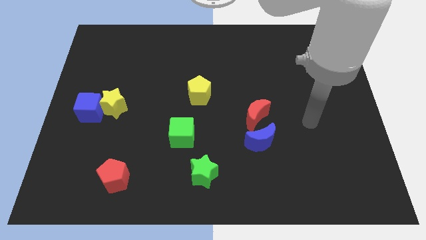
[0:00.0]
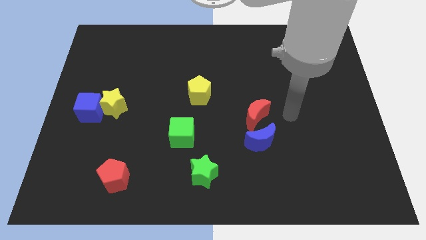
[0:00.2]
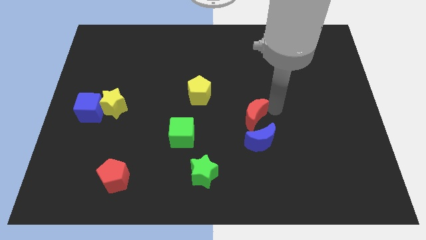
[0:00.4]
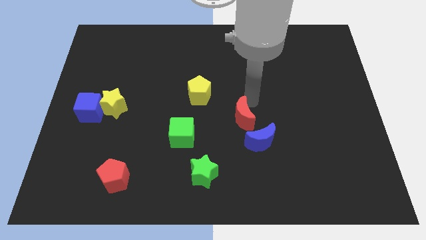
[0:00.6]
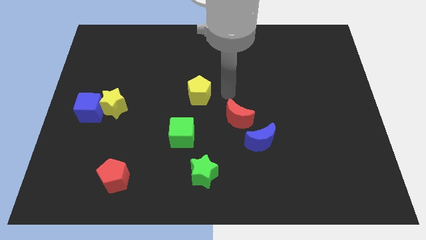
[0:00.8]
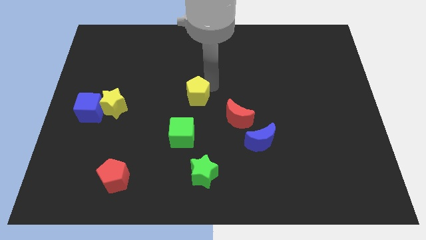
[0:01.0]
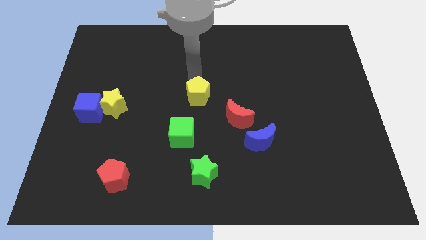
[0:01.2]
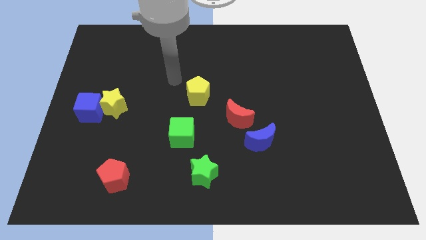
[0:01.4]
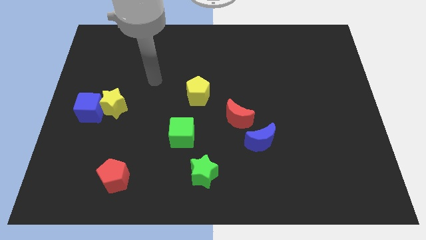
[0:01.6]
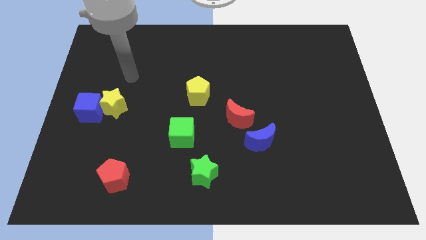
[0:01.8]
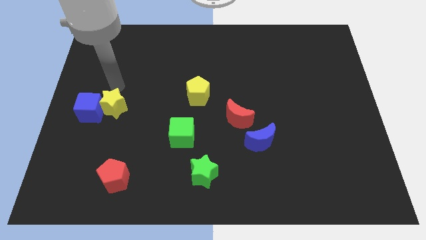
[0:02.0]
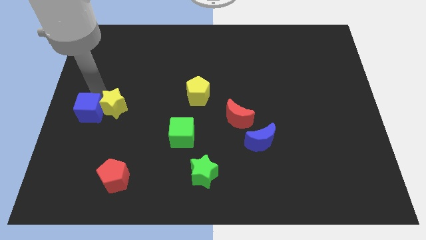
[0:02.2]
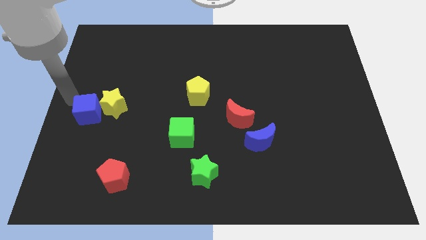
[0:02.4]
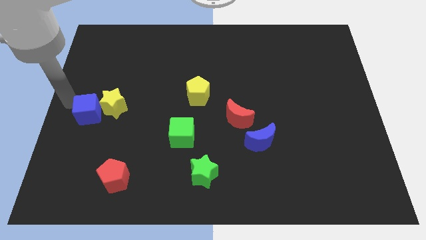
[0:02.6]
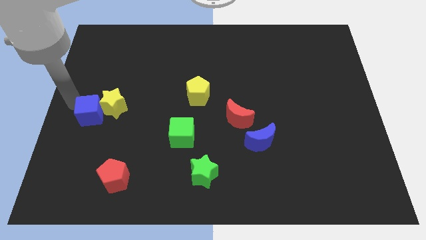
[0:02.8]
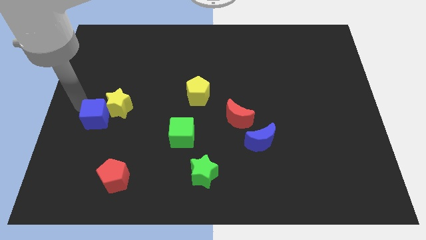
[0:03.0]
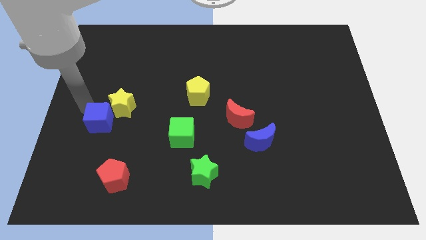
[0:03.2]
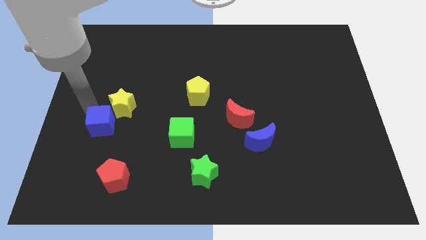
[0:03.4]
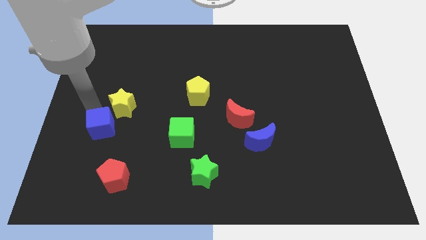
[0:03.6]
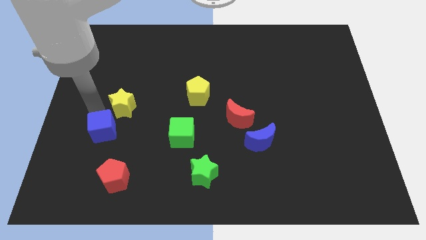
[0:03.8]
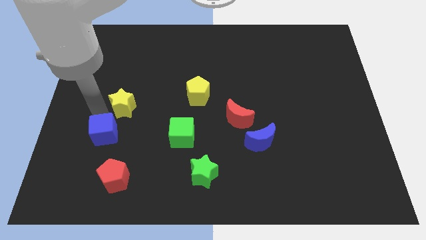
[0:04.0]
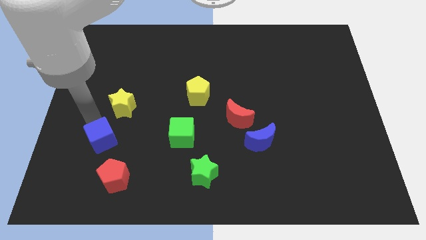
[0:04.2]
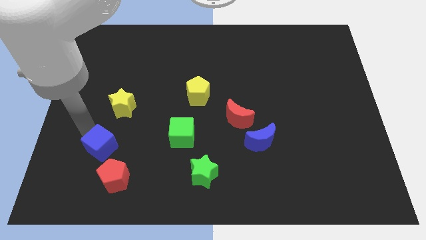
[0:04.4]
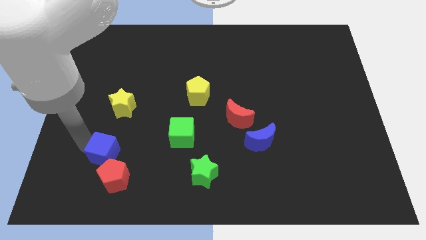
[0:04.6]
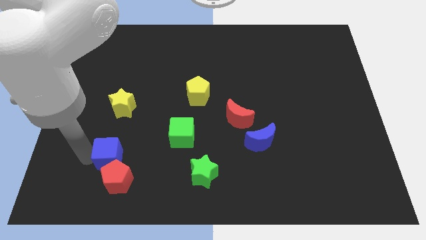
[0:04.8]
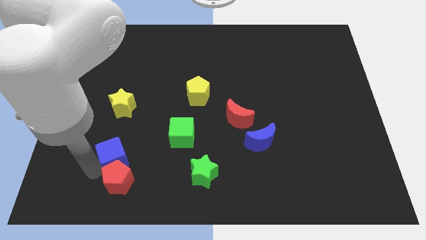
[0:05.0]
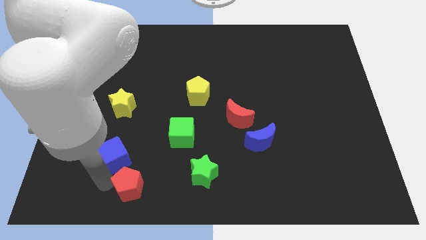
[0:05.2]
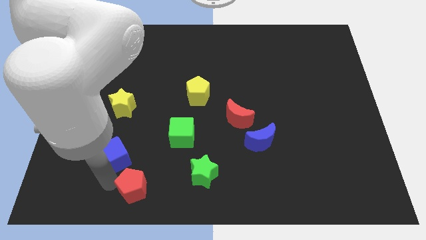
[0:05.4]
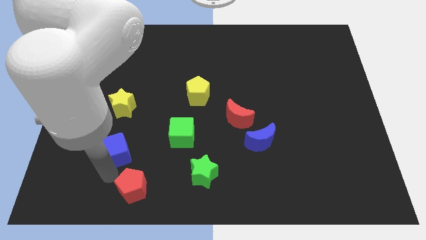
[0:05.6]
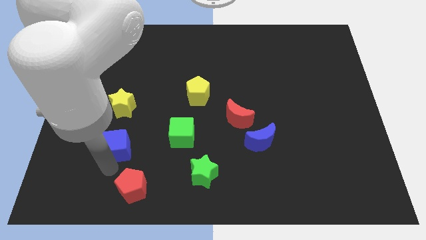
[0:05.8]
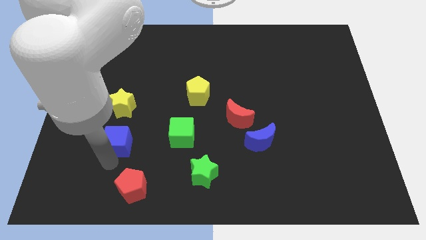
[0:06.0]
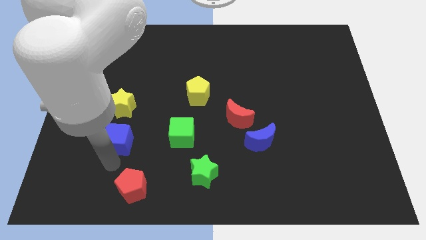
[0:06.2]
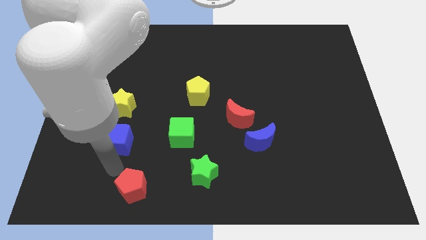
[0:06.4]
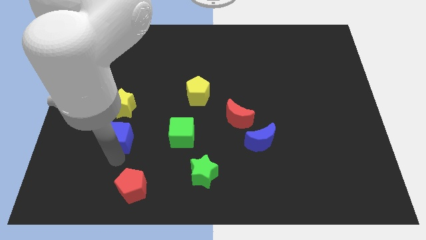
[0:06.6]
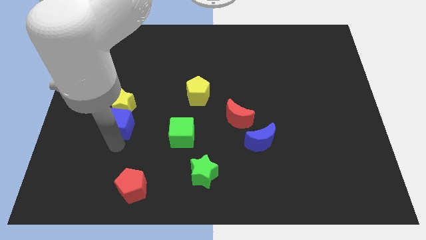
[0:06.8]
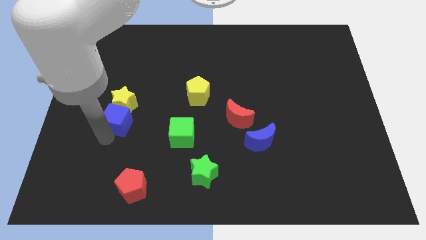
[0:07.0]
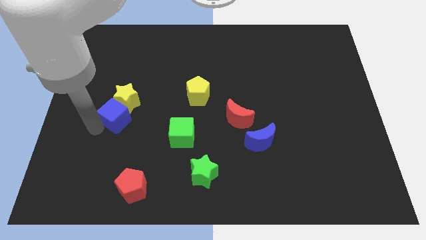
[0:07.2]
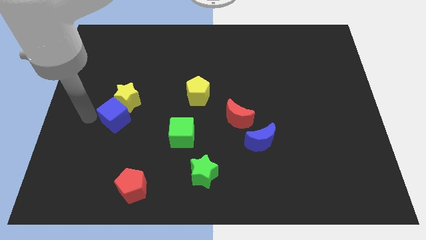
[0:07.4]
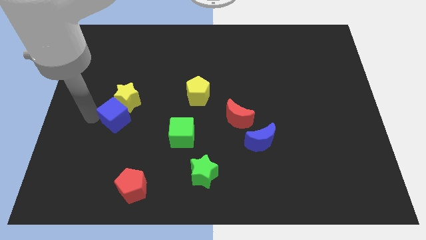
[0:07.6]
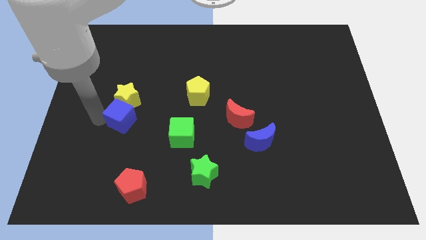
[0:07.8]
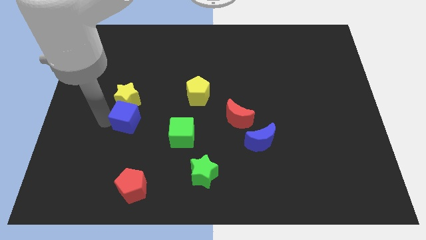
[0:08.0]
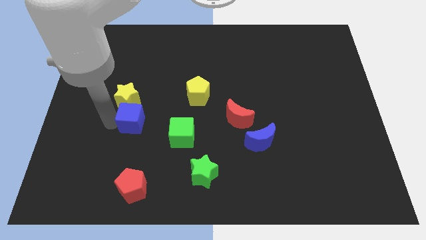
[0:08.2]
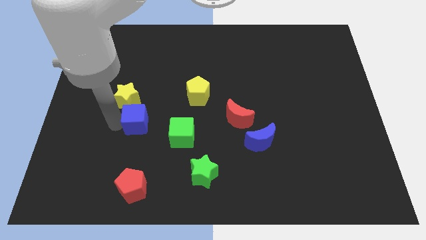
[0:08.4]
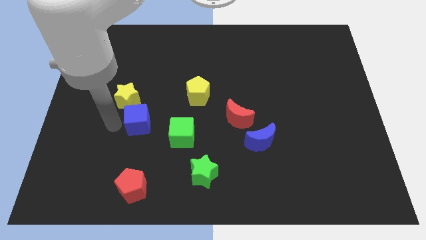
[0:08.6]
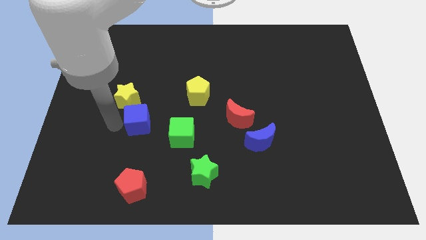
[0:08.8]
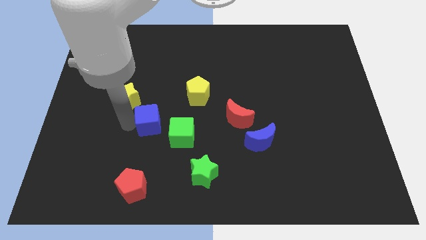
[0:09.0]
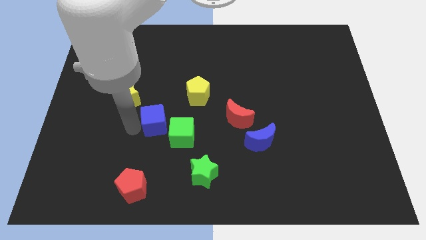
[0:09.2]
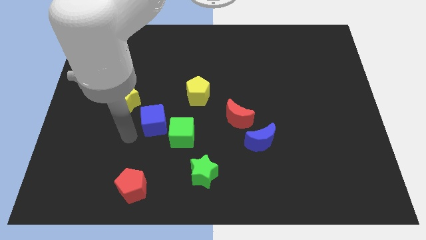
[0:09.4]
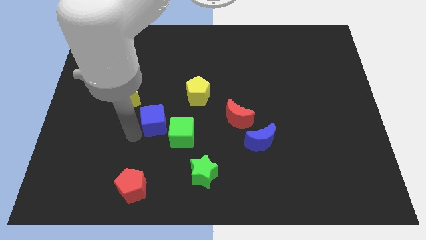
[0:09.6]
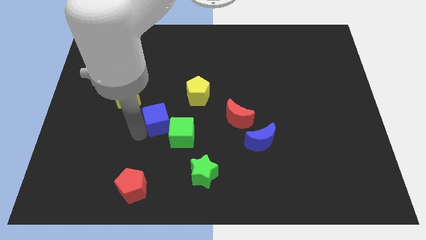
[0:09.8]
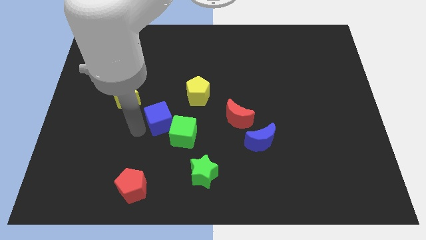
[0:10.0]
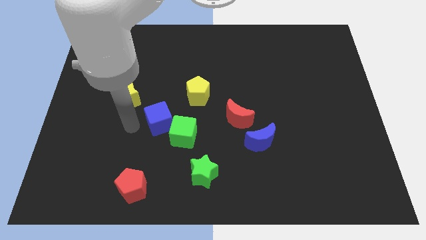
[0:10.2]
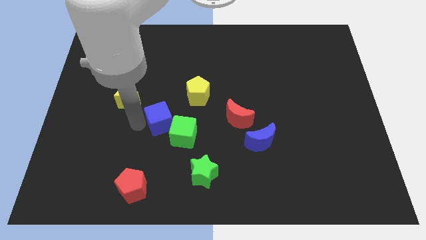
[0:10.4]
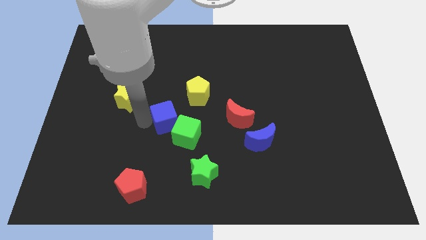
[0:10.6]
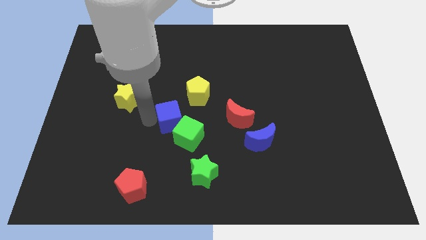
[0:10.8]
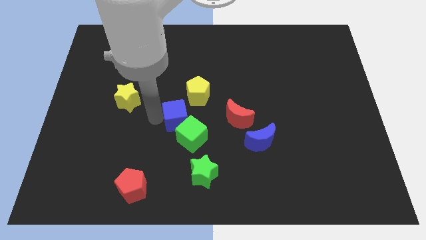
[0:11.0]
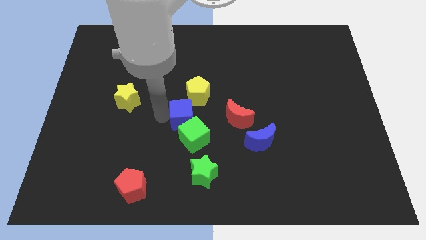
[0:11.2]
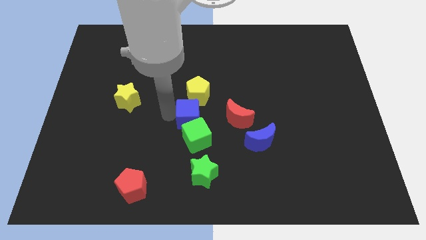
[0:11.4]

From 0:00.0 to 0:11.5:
put the blue cube above the green star

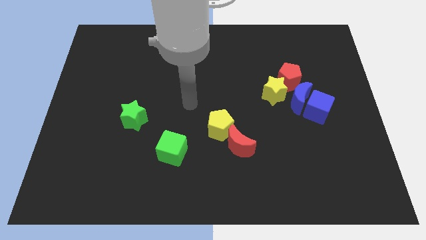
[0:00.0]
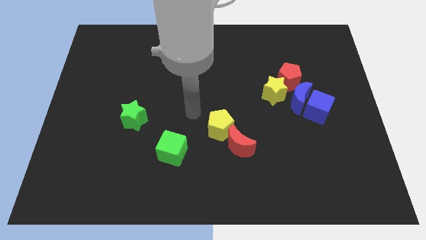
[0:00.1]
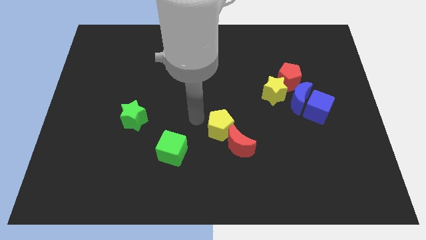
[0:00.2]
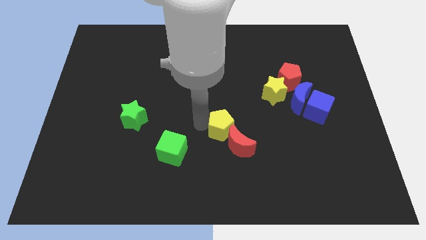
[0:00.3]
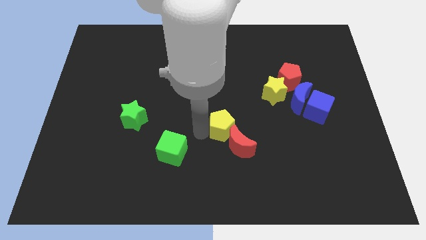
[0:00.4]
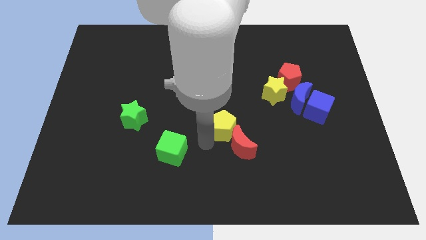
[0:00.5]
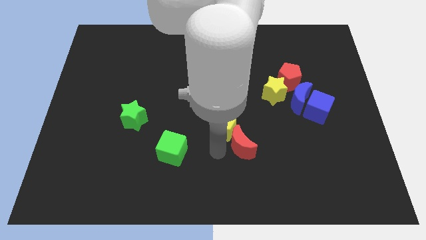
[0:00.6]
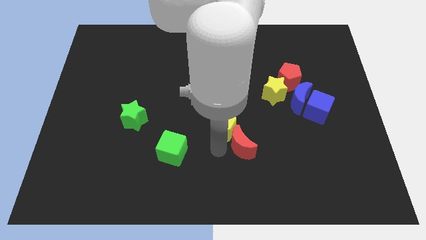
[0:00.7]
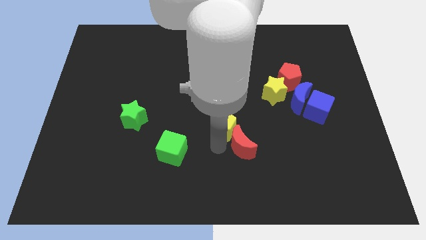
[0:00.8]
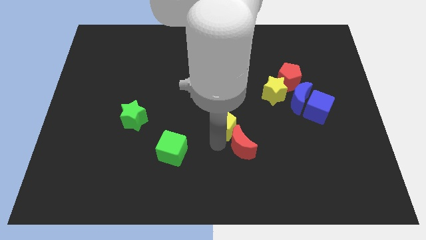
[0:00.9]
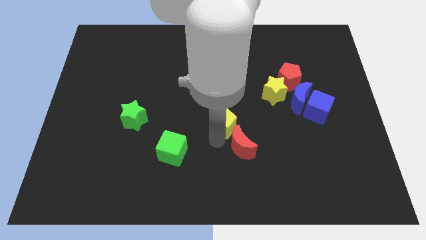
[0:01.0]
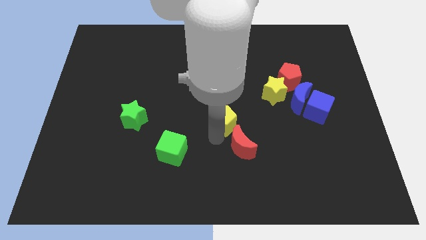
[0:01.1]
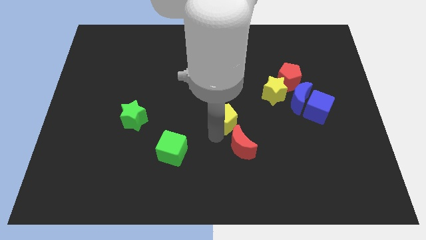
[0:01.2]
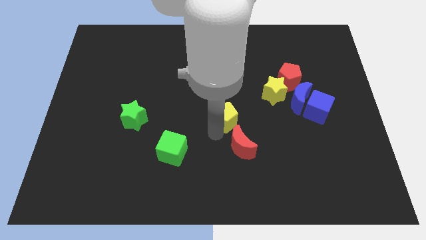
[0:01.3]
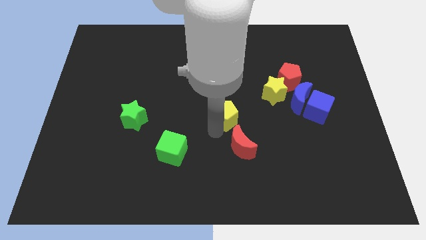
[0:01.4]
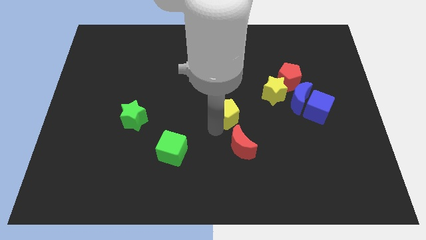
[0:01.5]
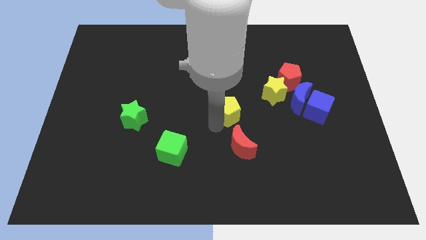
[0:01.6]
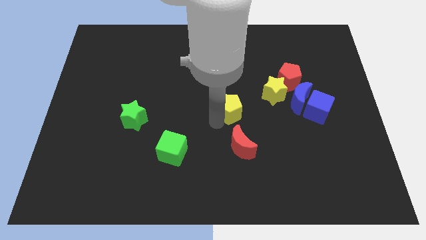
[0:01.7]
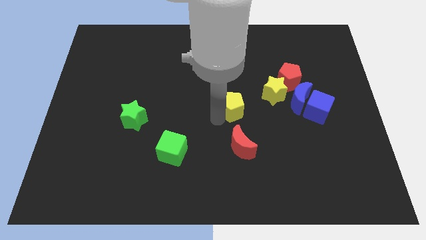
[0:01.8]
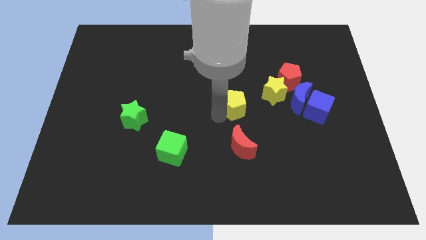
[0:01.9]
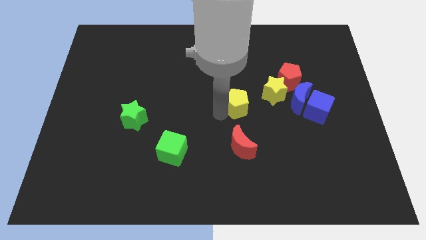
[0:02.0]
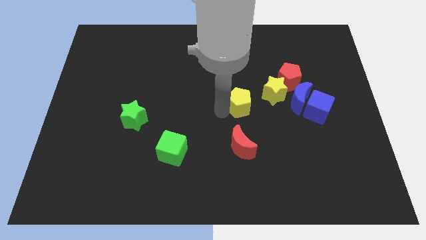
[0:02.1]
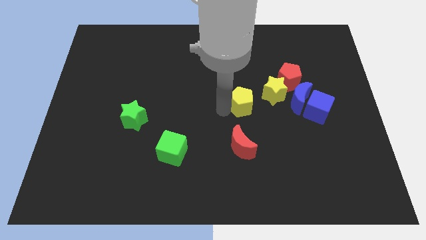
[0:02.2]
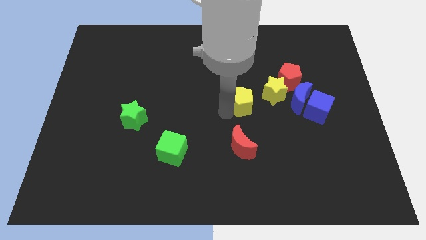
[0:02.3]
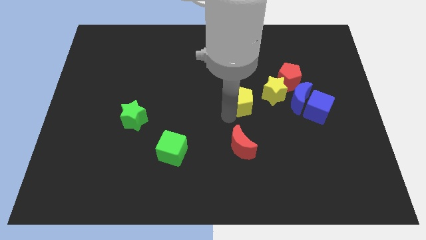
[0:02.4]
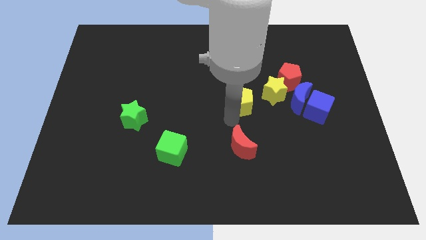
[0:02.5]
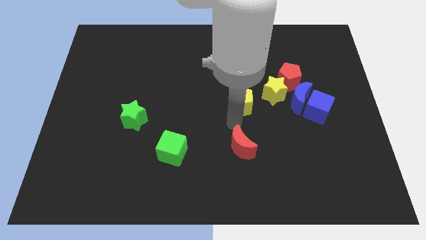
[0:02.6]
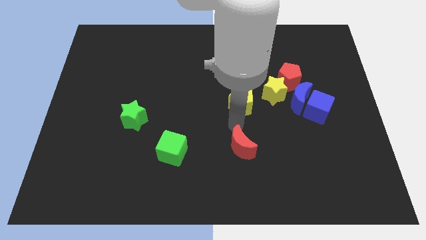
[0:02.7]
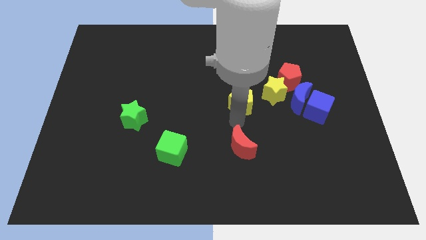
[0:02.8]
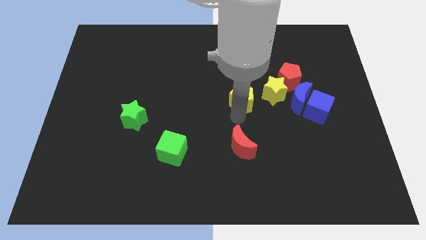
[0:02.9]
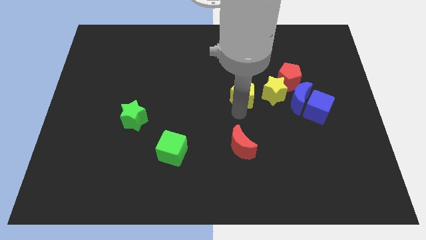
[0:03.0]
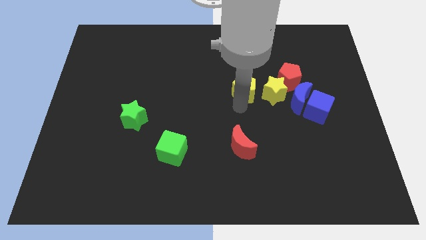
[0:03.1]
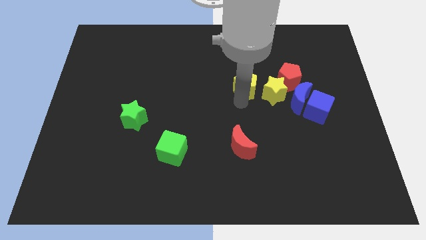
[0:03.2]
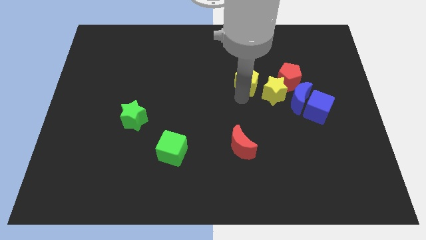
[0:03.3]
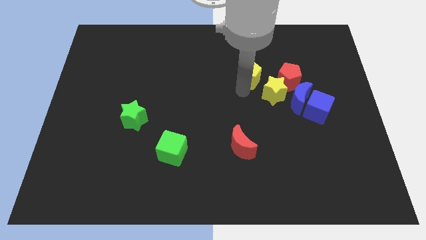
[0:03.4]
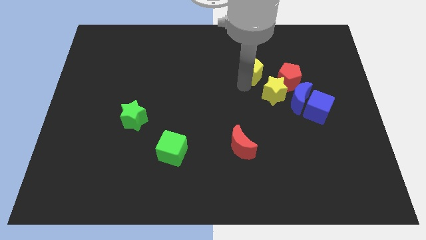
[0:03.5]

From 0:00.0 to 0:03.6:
move the yellow pentagon diagonally up and to the left of the red pentagon
